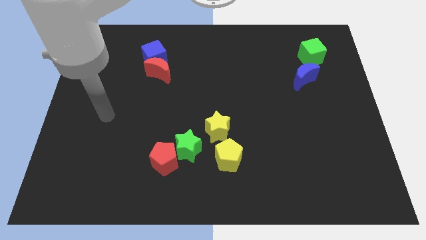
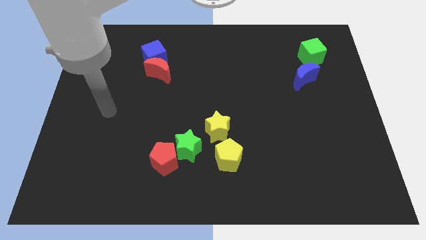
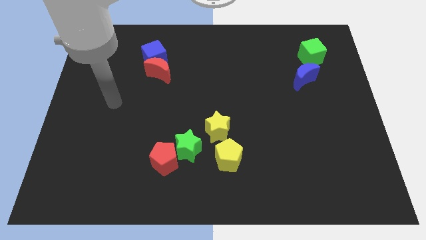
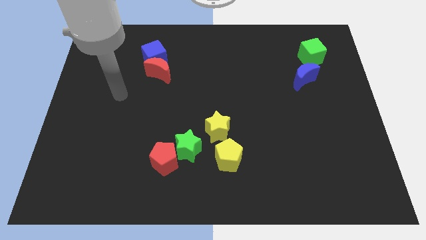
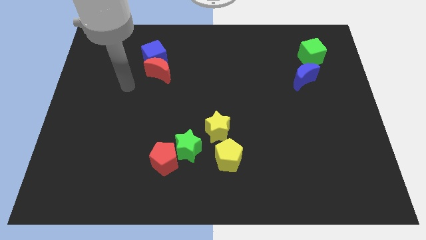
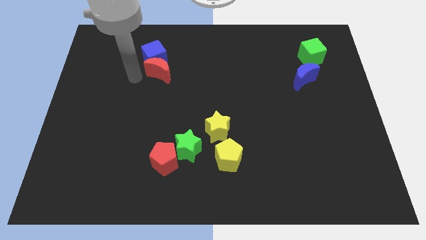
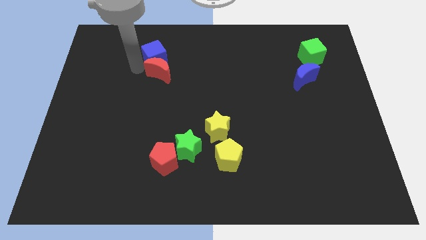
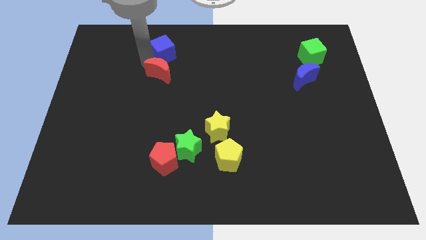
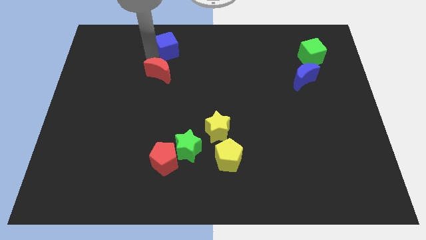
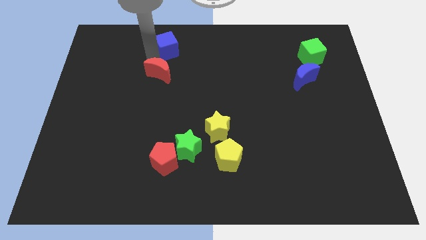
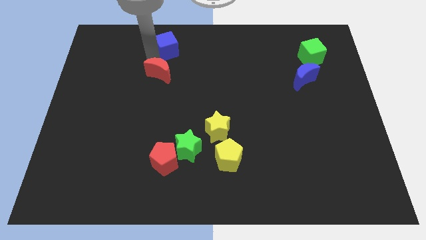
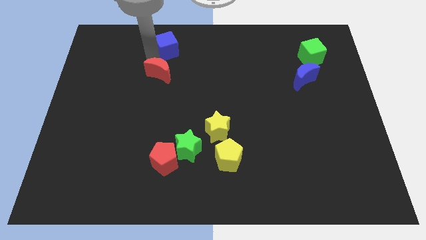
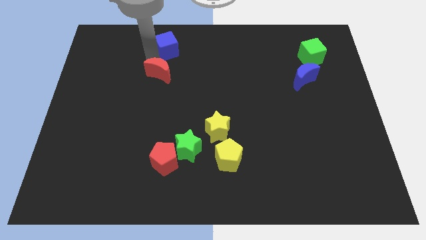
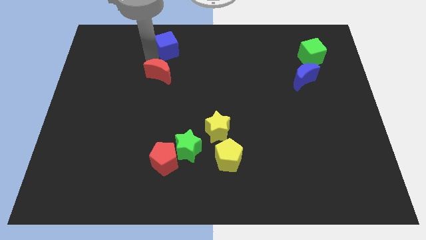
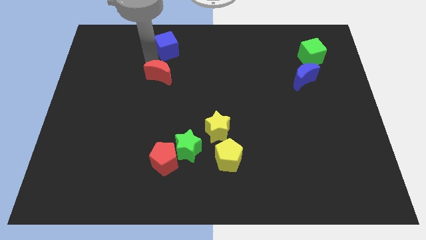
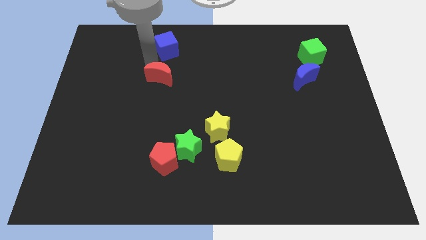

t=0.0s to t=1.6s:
move the red moon away from the blue cube

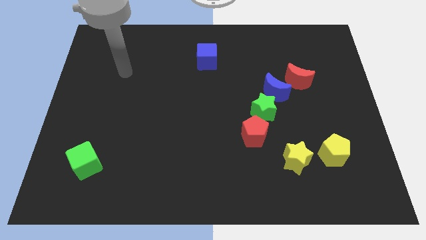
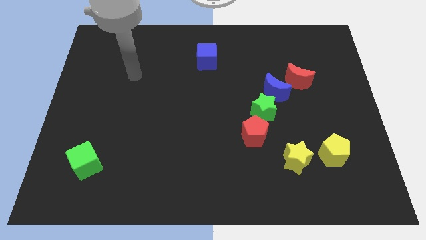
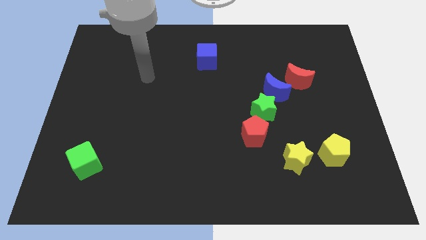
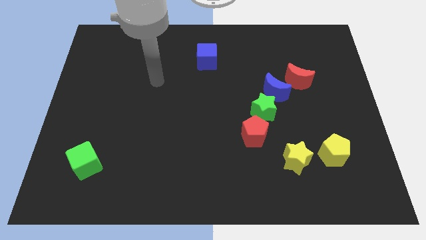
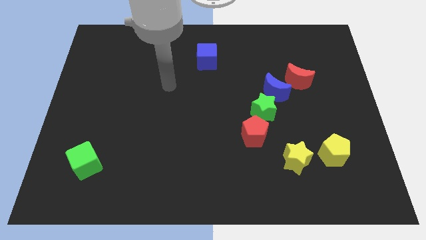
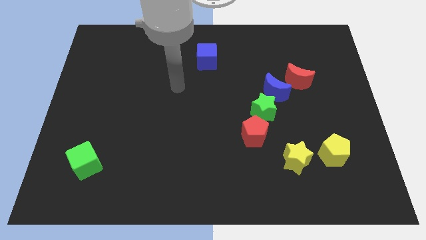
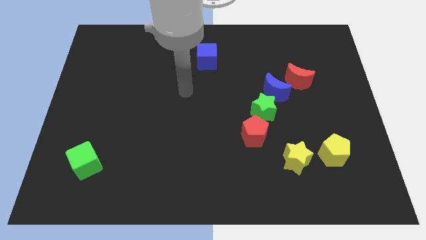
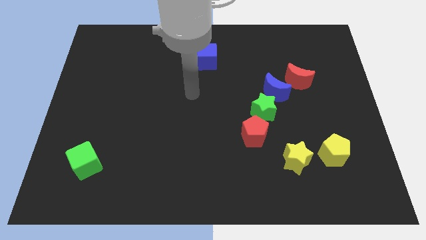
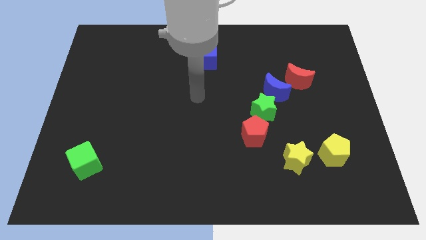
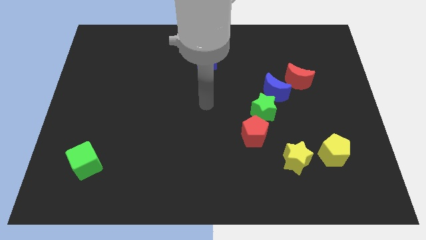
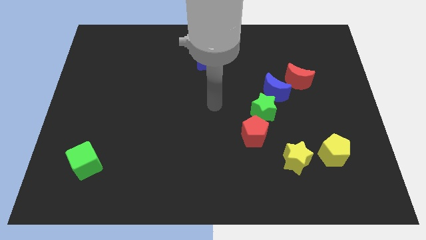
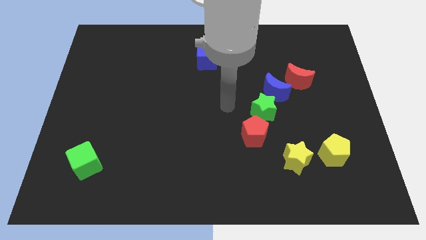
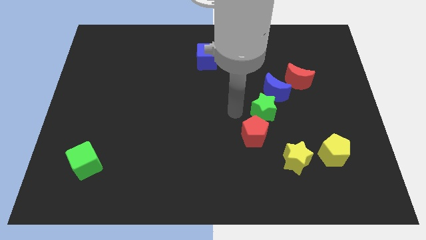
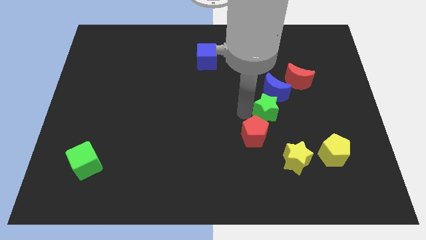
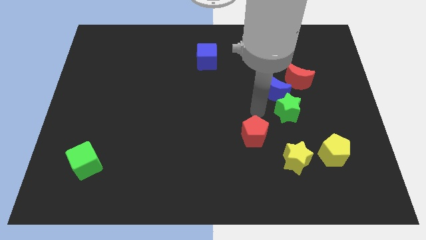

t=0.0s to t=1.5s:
move the red pentagon away from the green star

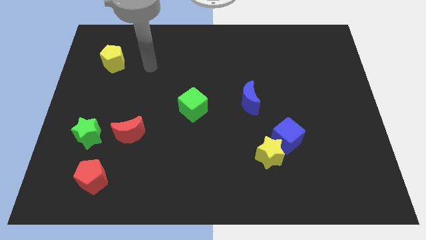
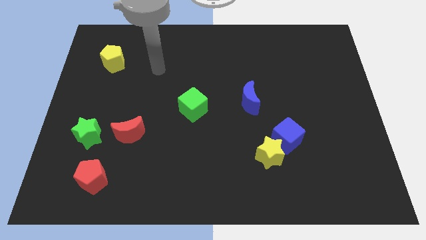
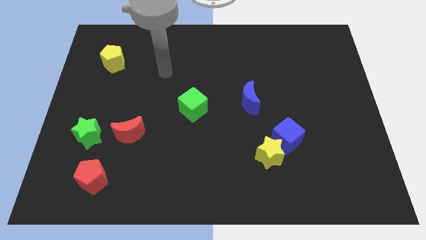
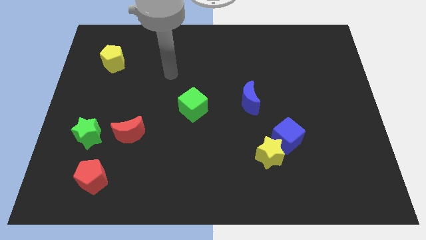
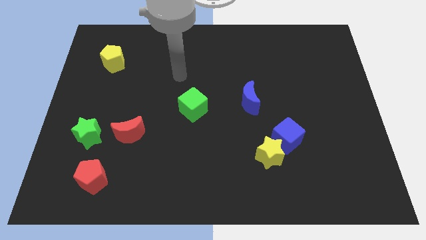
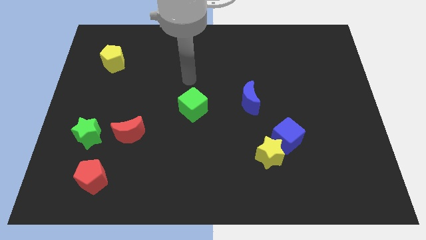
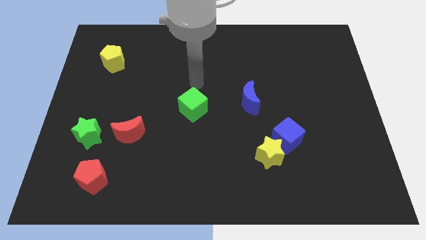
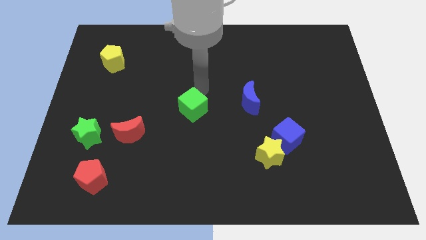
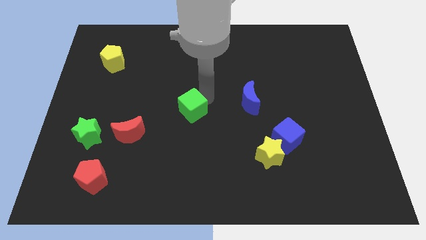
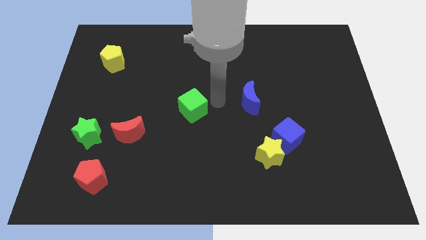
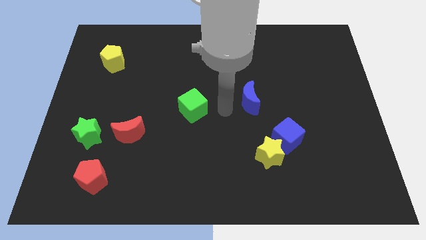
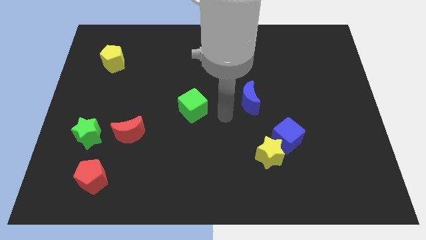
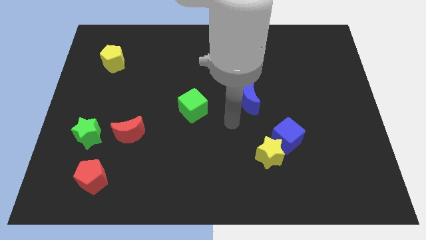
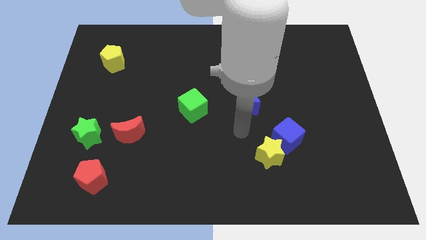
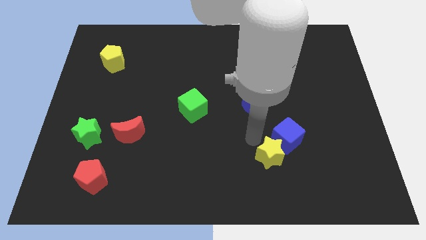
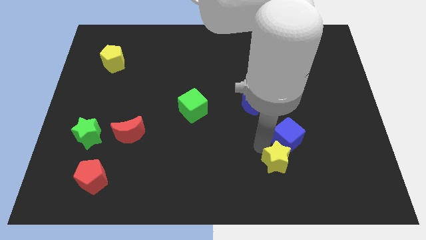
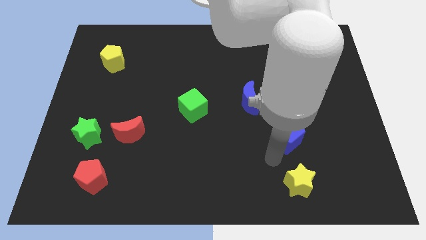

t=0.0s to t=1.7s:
separate the blue cube from the yellow star

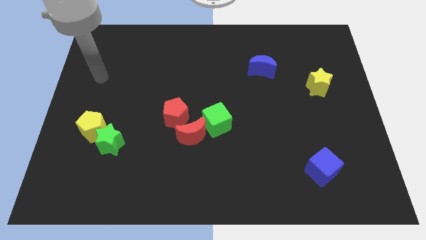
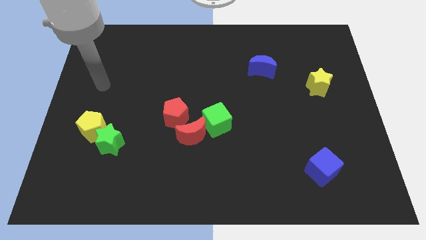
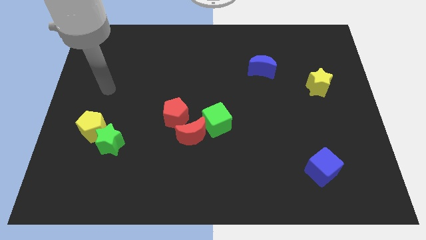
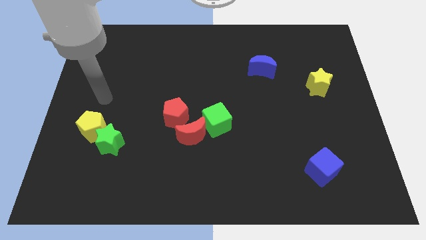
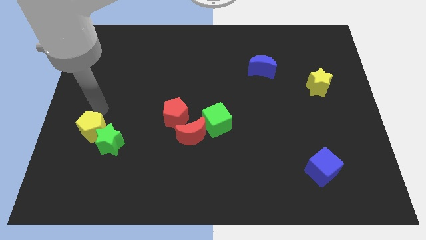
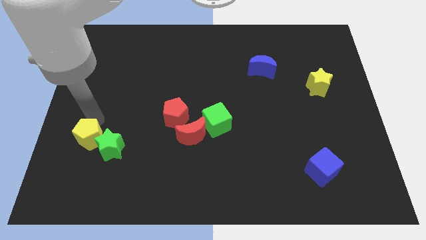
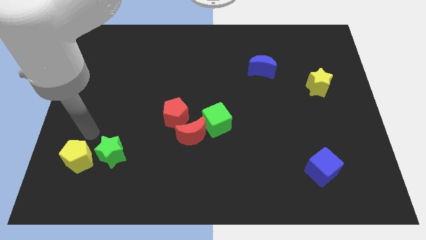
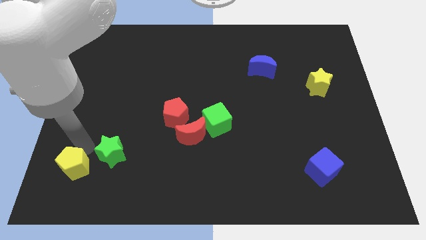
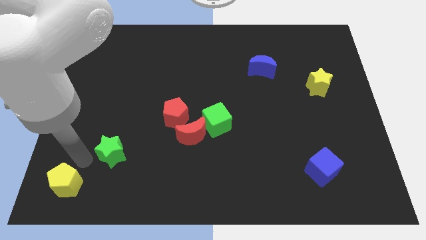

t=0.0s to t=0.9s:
separate the green star from the yellow pentagon

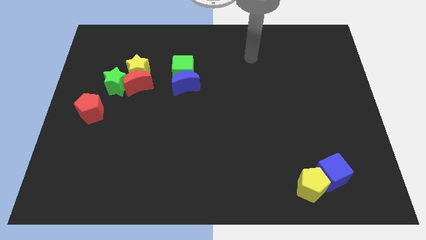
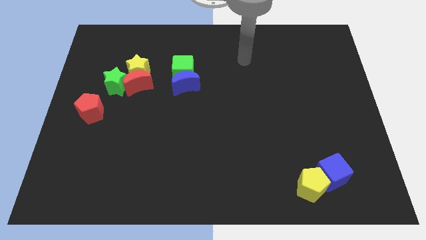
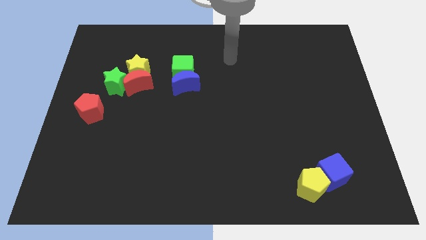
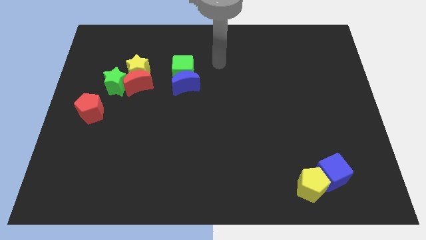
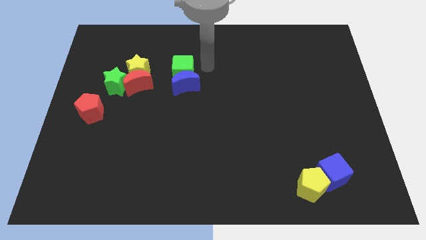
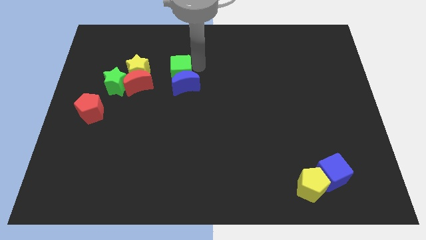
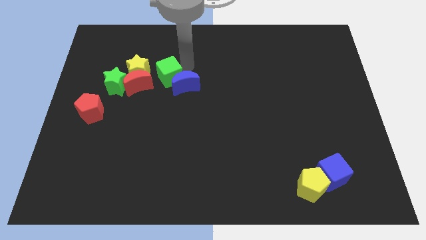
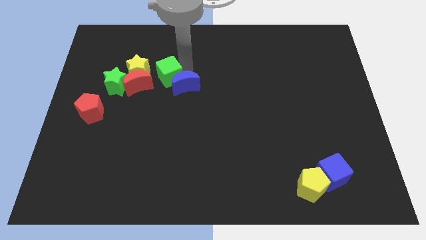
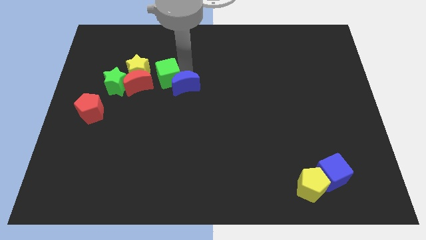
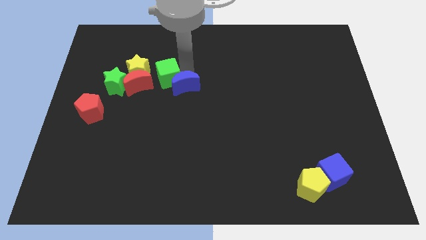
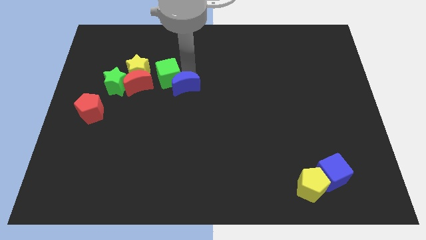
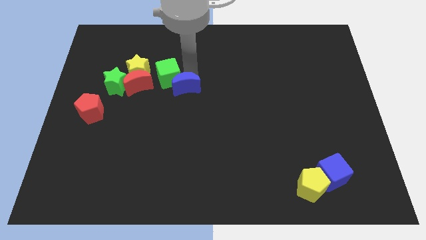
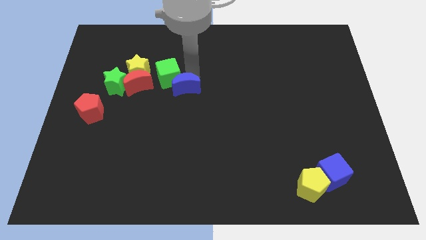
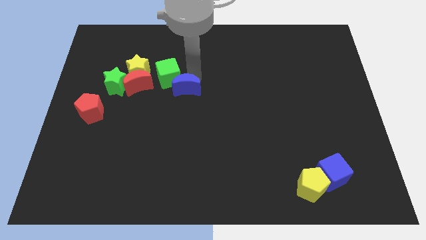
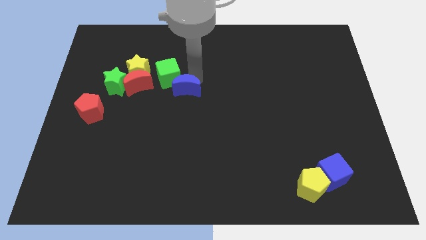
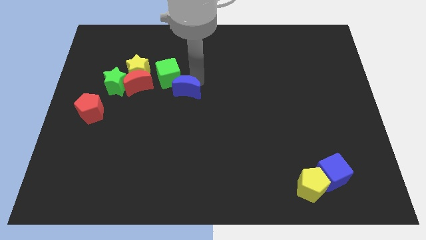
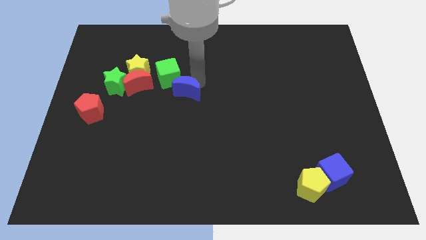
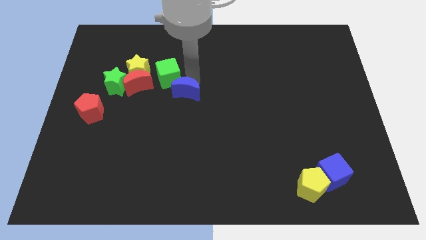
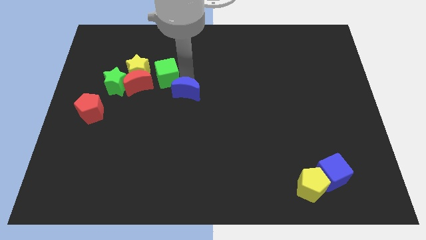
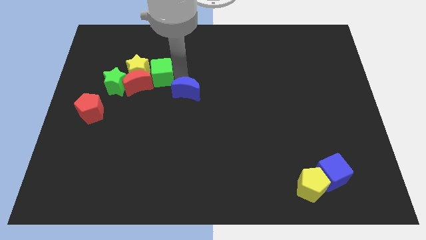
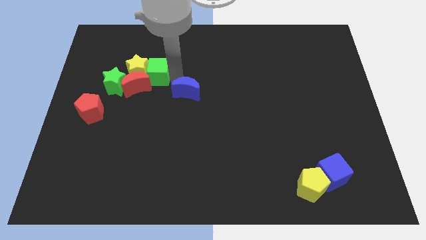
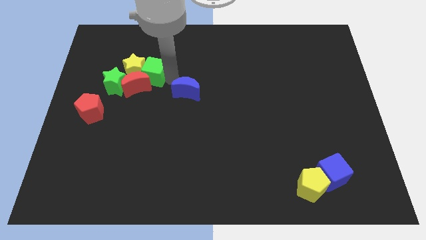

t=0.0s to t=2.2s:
pull the blue moon apart from the green cube

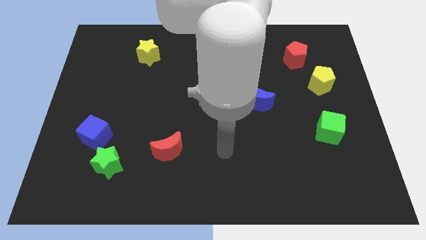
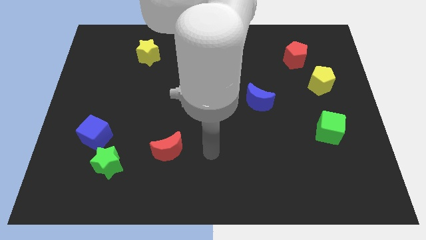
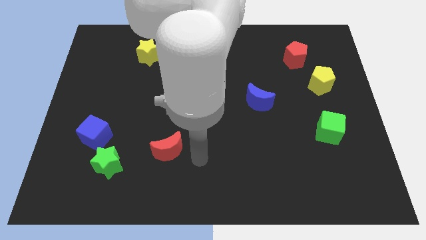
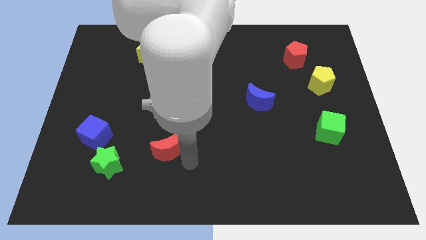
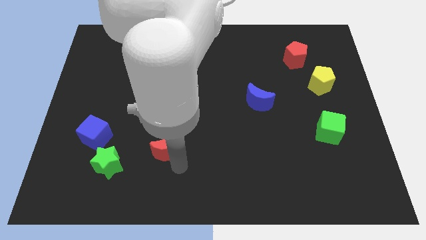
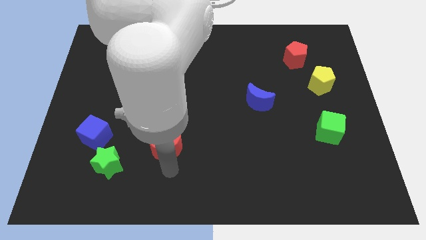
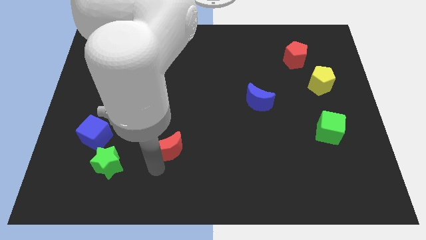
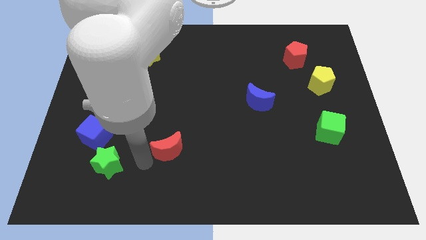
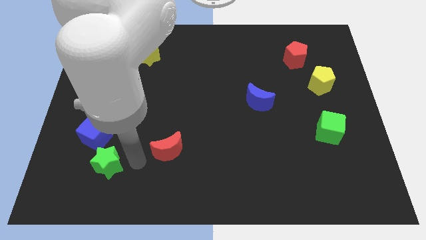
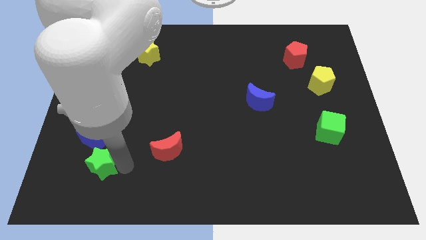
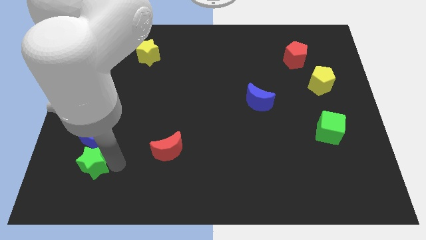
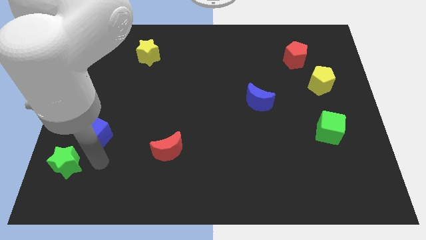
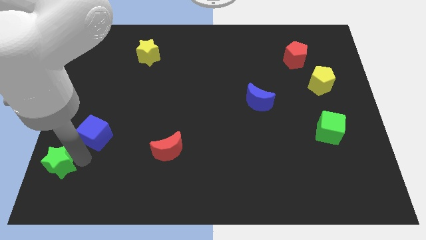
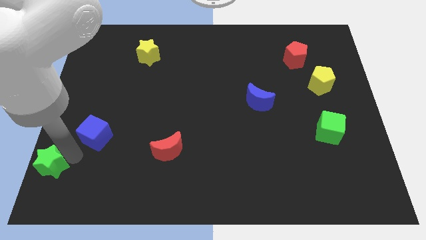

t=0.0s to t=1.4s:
pull the blue cube apart from the green star
